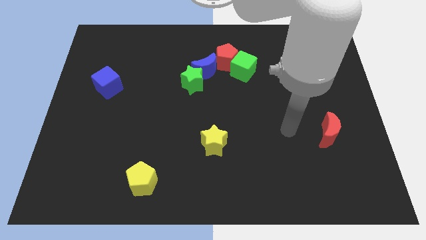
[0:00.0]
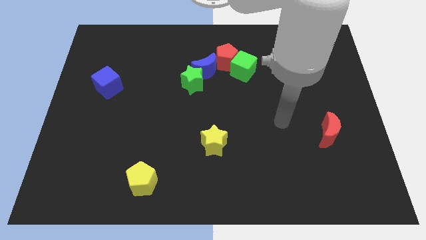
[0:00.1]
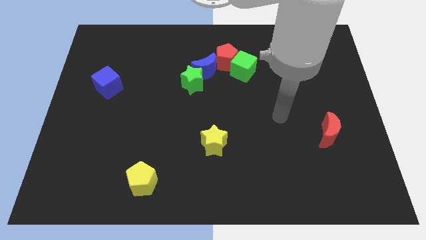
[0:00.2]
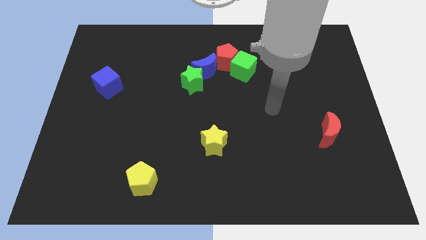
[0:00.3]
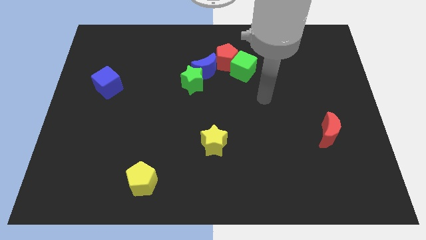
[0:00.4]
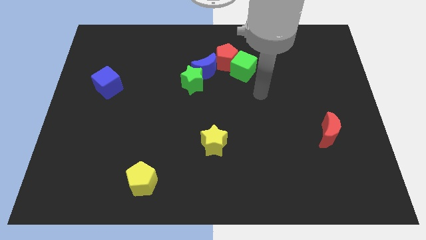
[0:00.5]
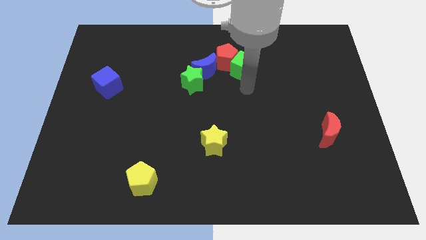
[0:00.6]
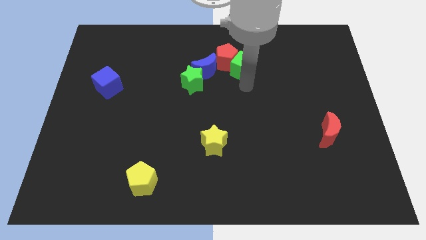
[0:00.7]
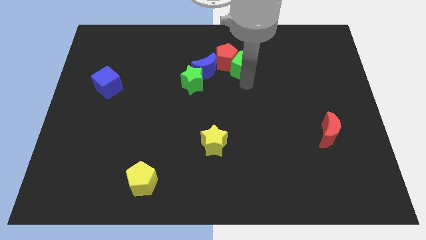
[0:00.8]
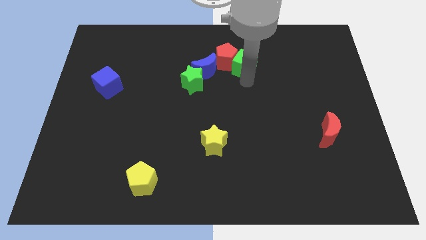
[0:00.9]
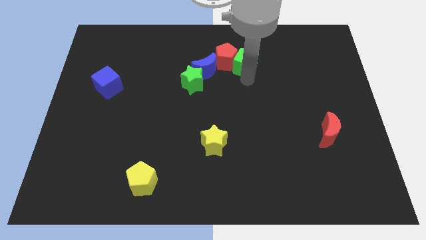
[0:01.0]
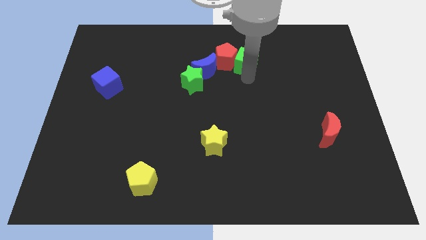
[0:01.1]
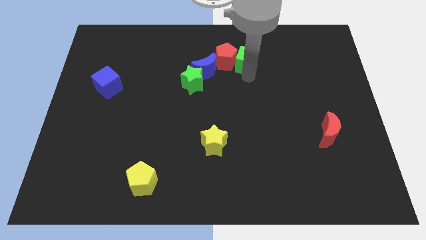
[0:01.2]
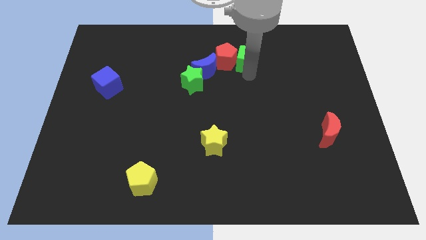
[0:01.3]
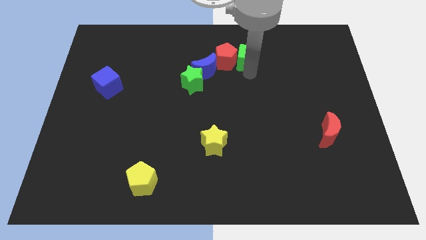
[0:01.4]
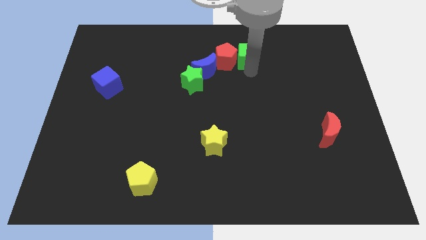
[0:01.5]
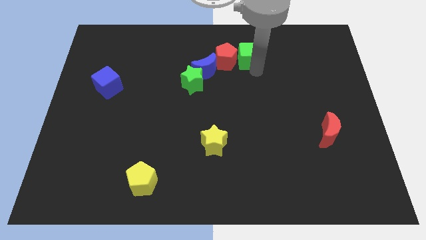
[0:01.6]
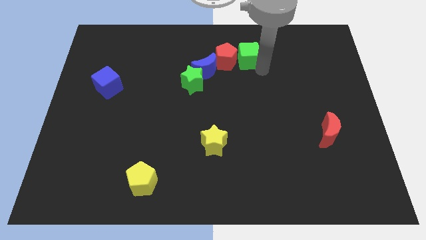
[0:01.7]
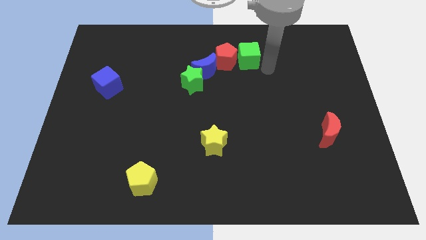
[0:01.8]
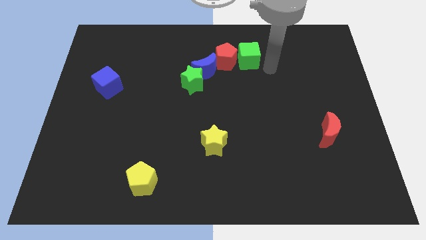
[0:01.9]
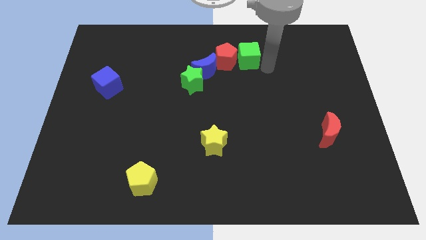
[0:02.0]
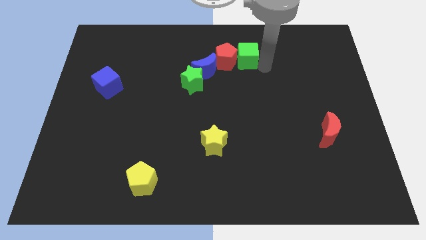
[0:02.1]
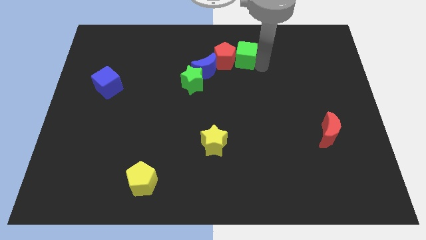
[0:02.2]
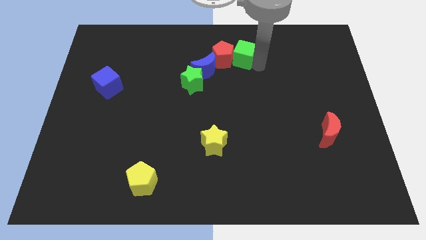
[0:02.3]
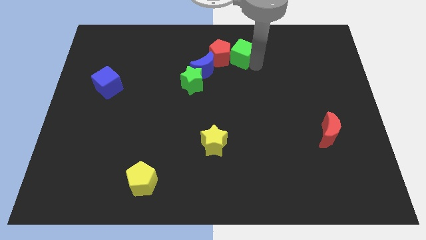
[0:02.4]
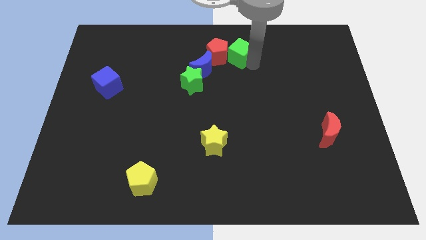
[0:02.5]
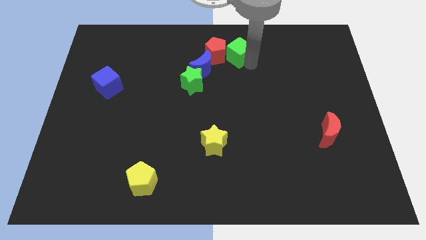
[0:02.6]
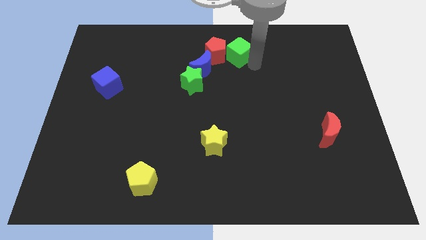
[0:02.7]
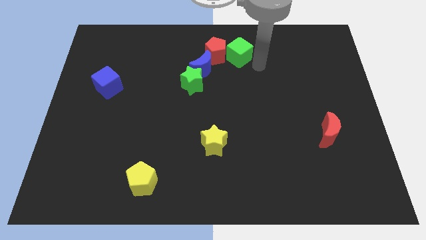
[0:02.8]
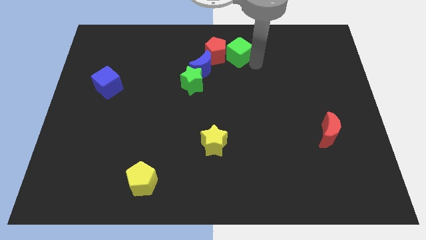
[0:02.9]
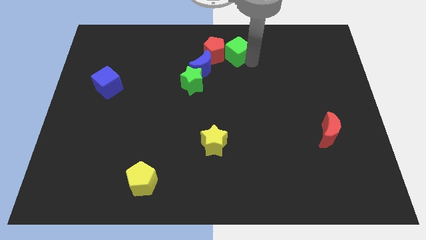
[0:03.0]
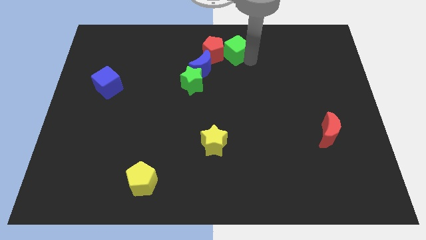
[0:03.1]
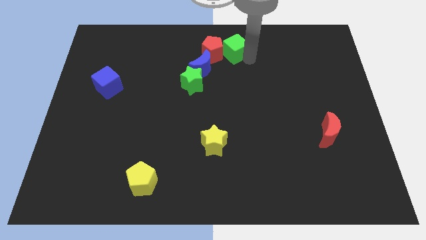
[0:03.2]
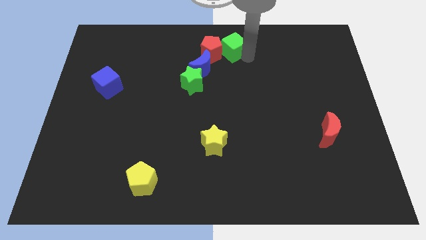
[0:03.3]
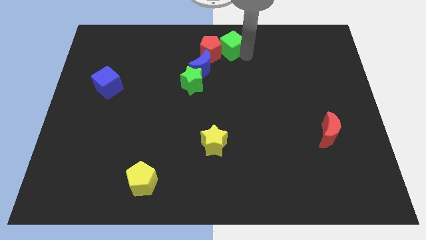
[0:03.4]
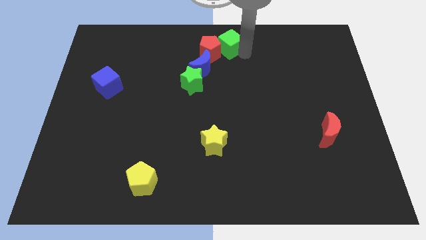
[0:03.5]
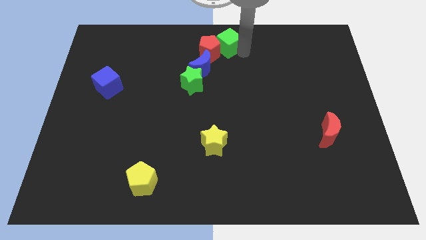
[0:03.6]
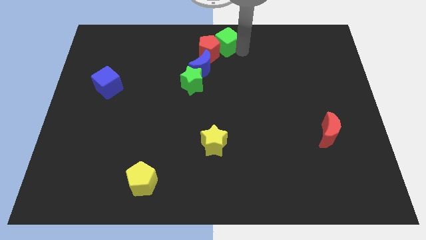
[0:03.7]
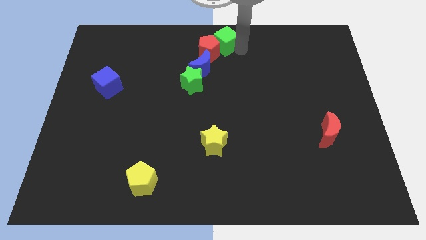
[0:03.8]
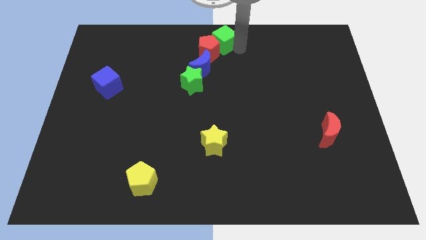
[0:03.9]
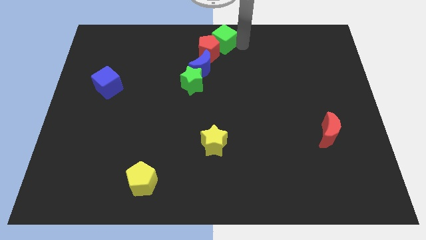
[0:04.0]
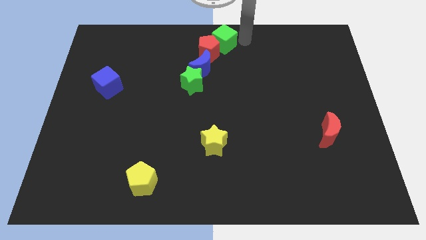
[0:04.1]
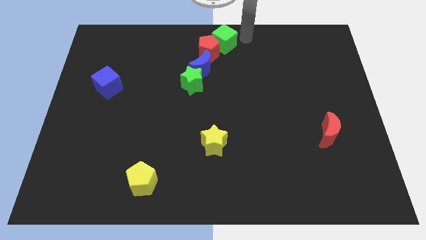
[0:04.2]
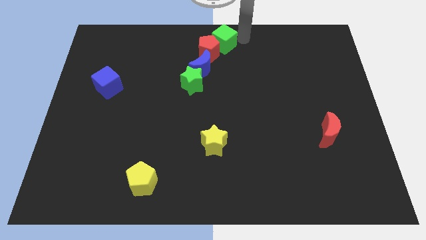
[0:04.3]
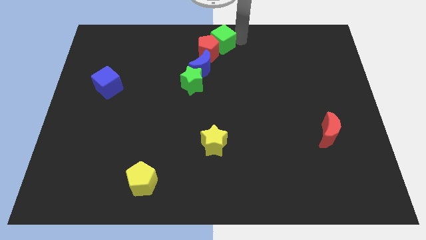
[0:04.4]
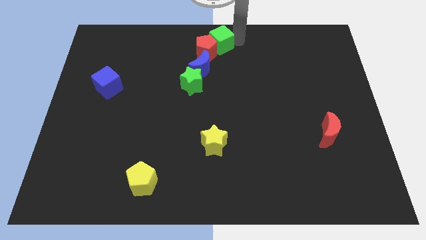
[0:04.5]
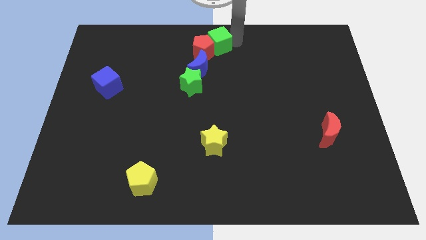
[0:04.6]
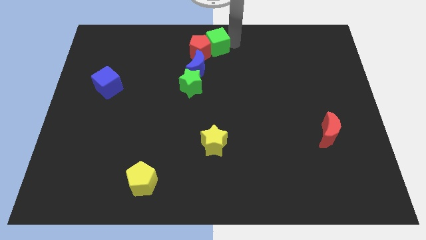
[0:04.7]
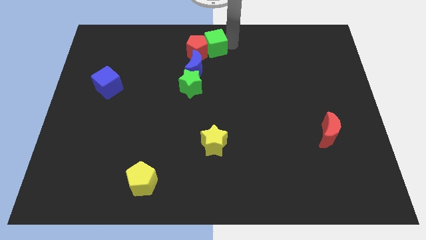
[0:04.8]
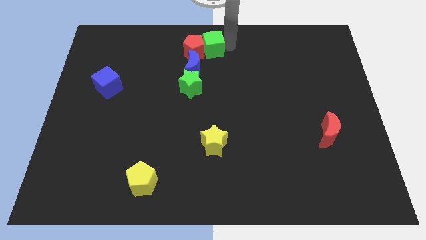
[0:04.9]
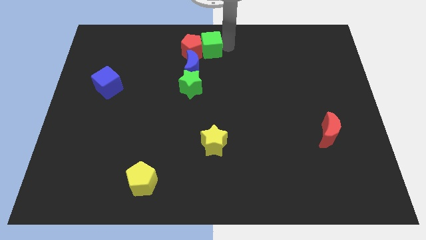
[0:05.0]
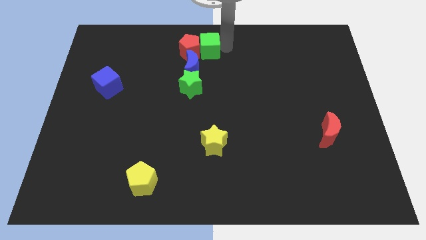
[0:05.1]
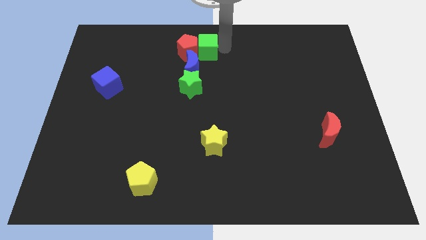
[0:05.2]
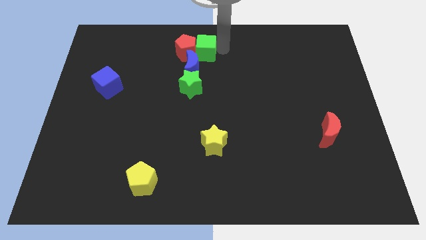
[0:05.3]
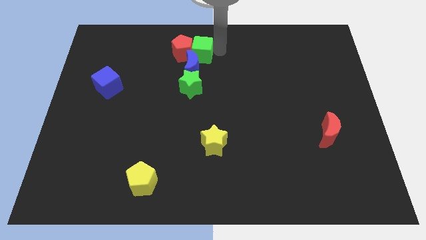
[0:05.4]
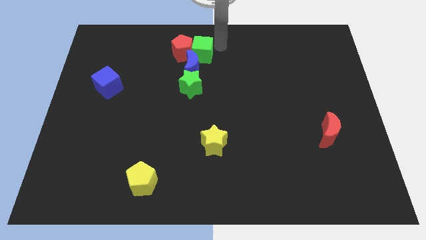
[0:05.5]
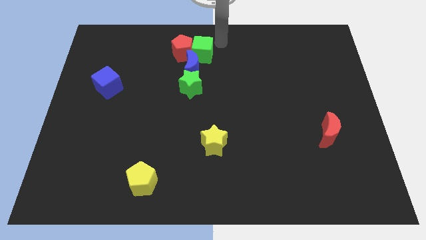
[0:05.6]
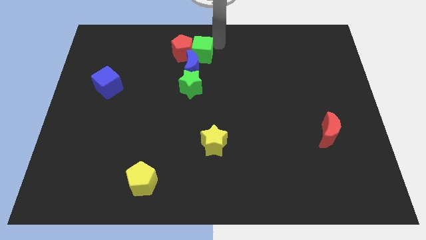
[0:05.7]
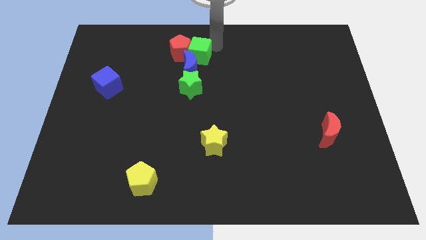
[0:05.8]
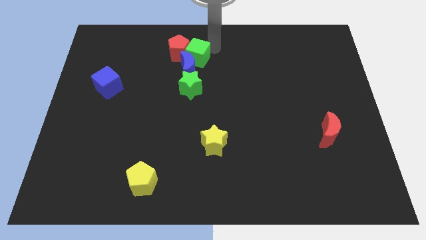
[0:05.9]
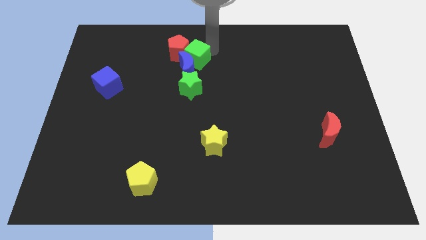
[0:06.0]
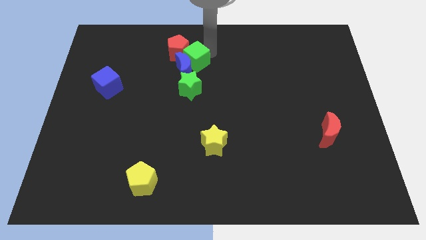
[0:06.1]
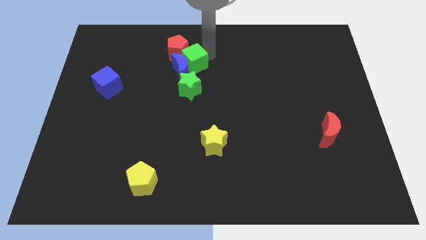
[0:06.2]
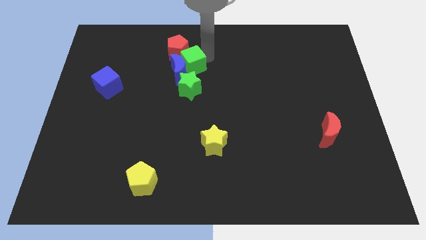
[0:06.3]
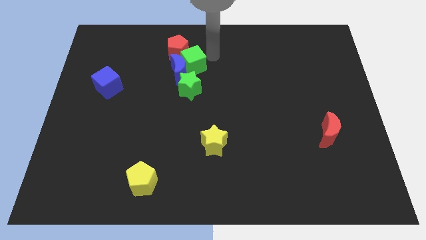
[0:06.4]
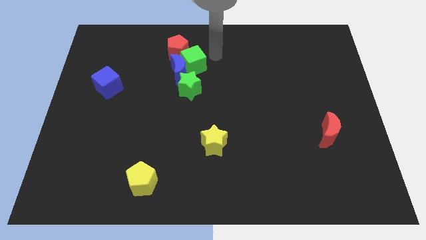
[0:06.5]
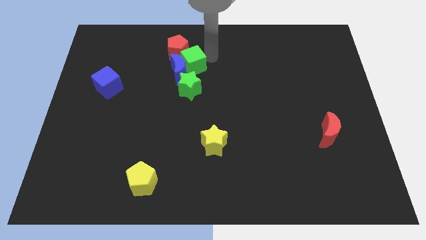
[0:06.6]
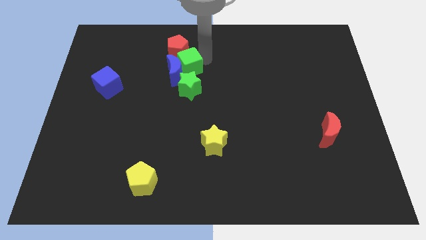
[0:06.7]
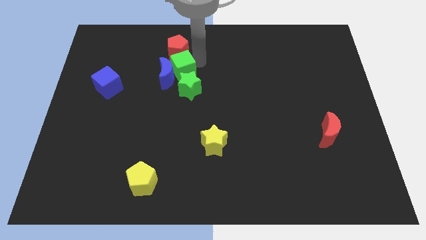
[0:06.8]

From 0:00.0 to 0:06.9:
push the green cube to the top left side of the green star

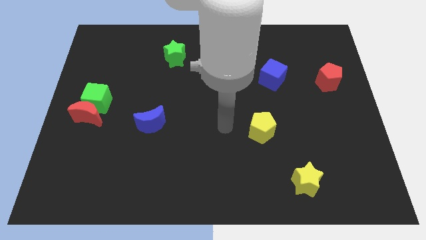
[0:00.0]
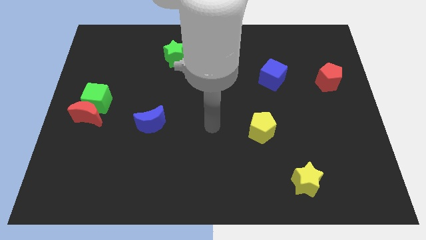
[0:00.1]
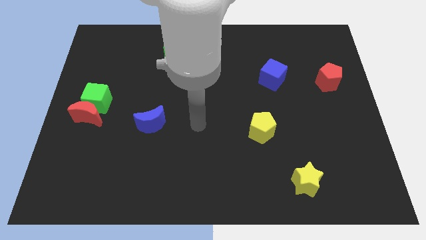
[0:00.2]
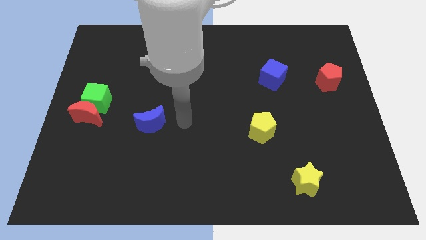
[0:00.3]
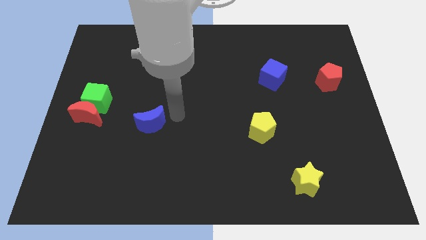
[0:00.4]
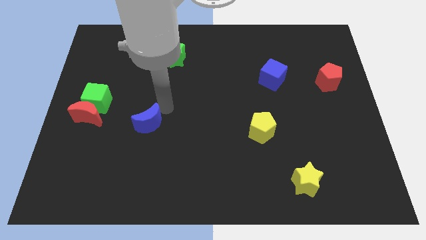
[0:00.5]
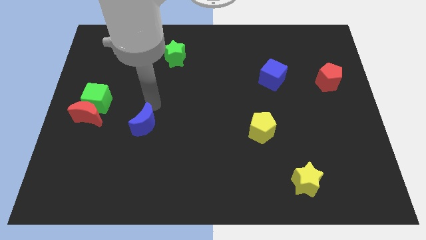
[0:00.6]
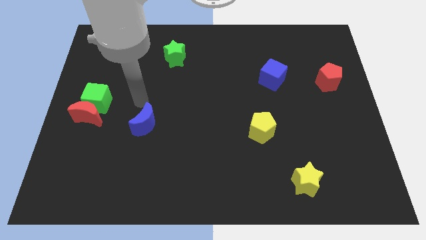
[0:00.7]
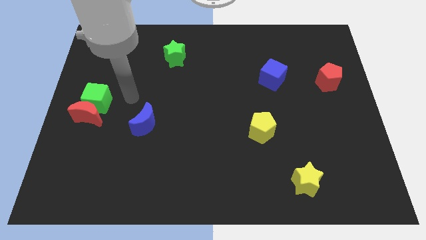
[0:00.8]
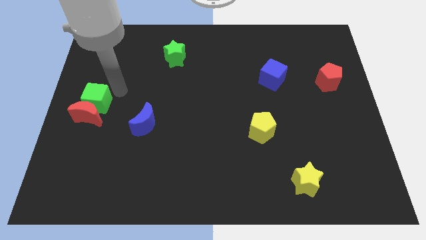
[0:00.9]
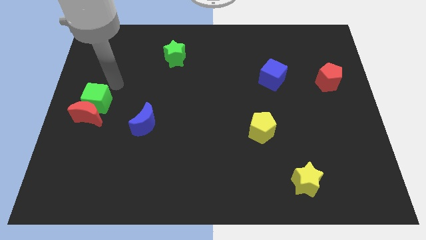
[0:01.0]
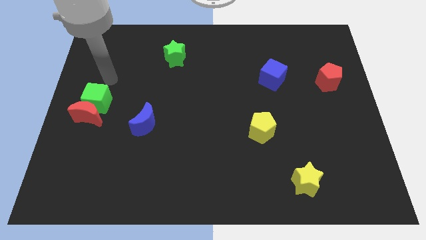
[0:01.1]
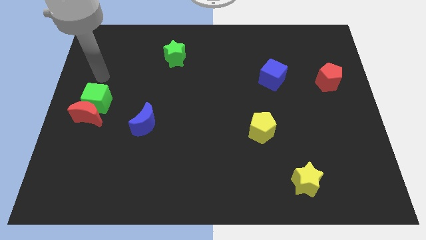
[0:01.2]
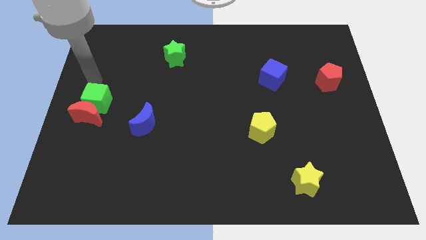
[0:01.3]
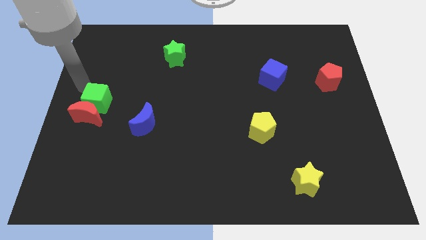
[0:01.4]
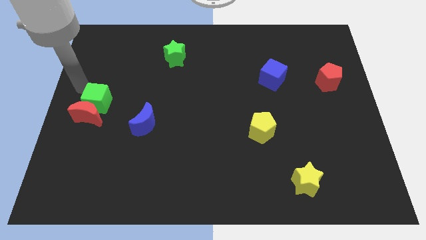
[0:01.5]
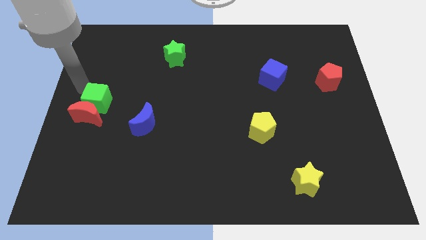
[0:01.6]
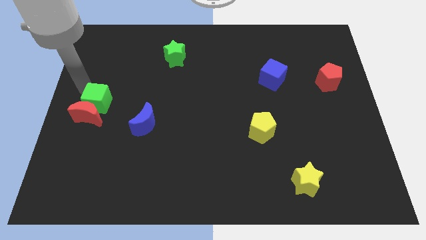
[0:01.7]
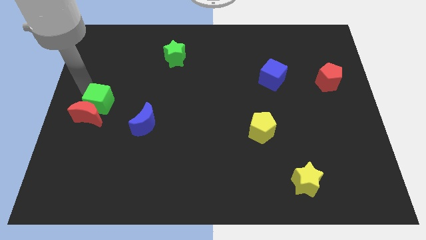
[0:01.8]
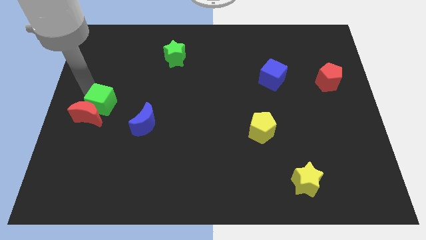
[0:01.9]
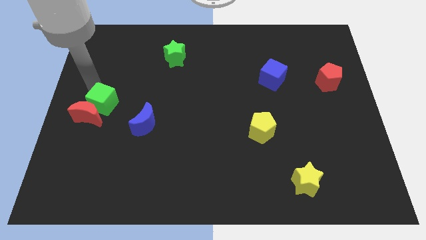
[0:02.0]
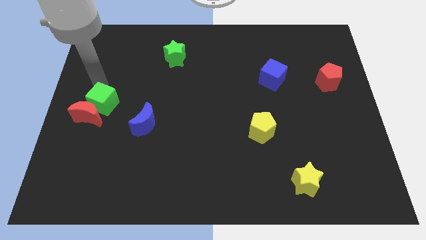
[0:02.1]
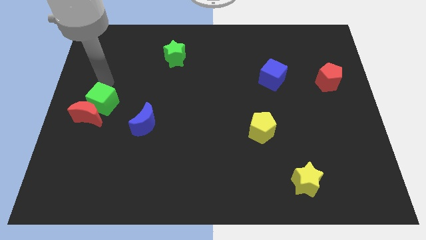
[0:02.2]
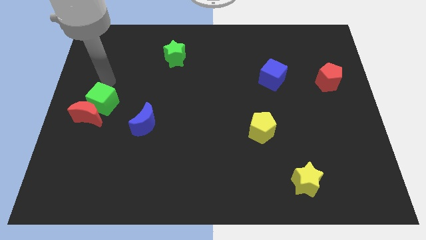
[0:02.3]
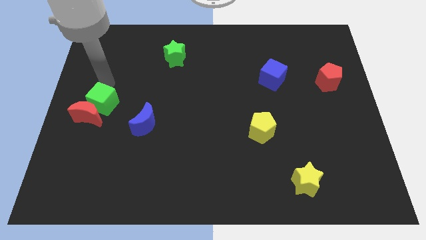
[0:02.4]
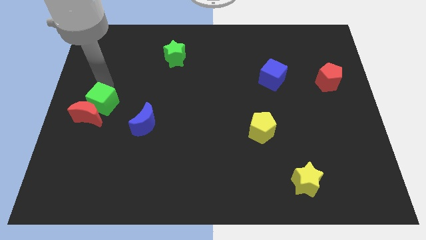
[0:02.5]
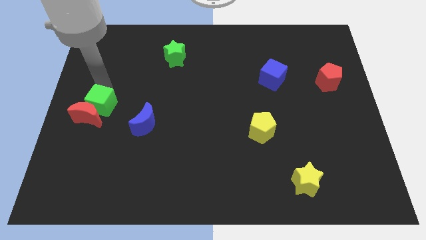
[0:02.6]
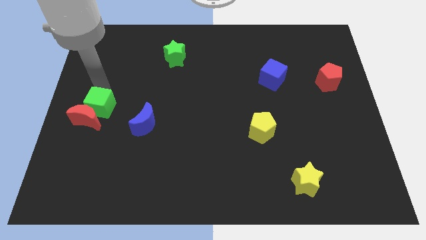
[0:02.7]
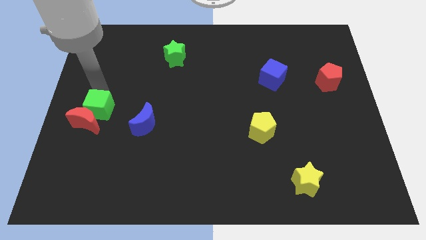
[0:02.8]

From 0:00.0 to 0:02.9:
move the green cube left of the blue moon
